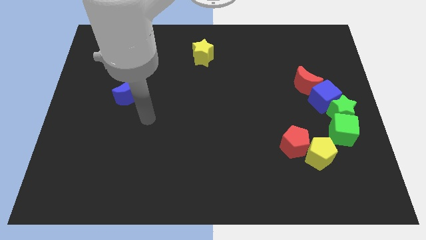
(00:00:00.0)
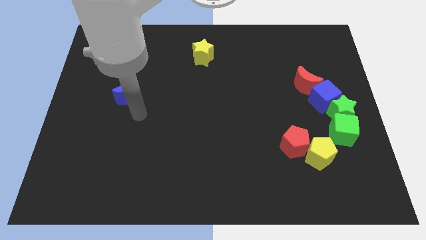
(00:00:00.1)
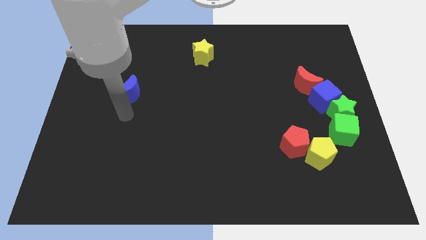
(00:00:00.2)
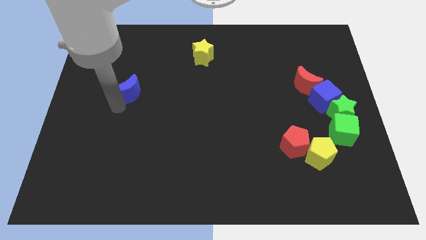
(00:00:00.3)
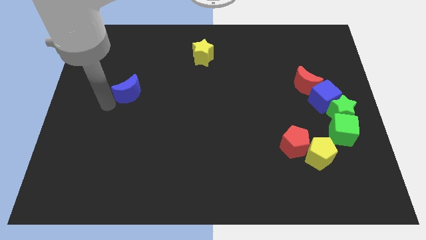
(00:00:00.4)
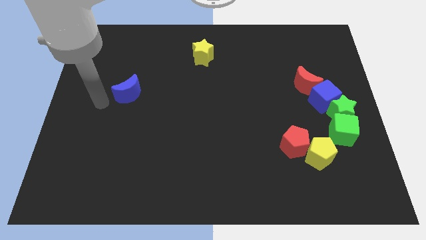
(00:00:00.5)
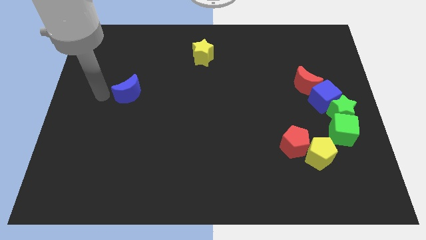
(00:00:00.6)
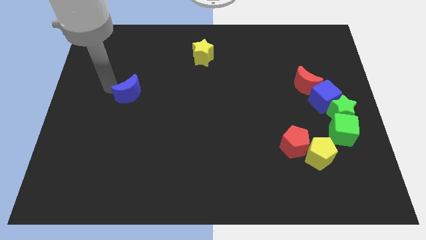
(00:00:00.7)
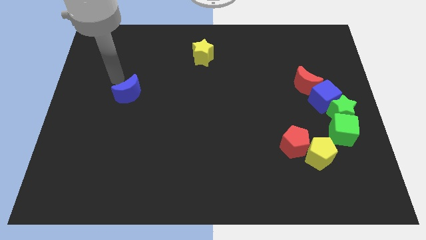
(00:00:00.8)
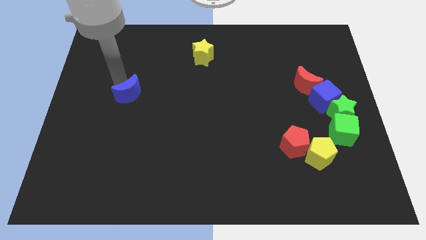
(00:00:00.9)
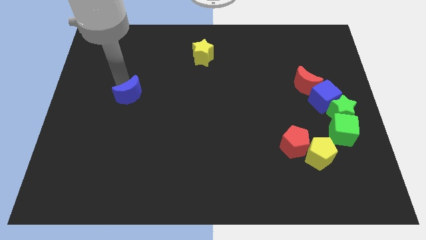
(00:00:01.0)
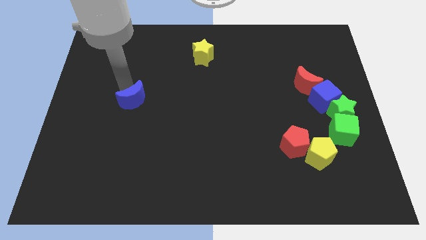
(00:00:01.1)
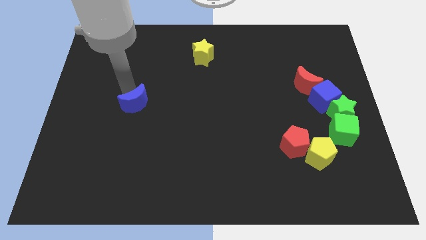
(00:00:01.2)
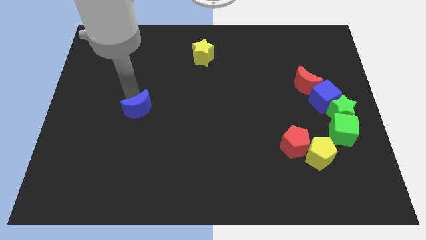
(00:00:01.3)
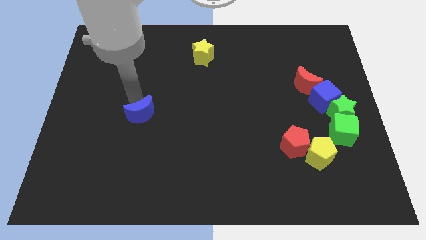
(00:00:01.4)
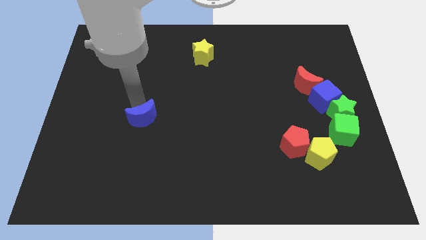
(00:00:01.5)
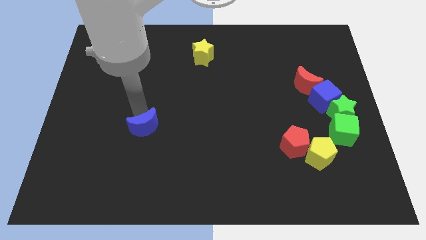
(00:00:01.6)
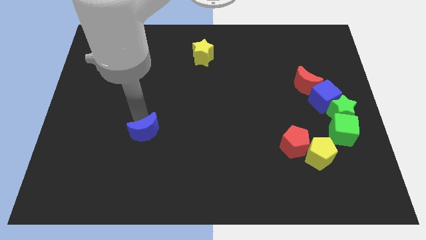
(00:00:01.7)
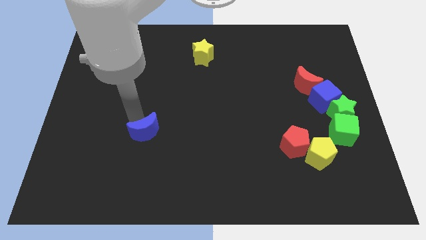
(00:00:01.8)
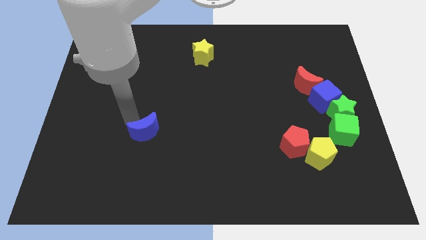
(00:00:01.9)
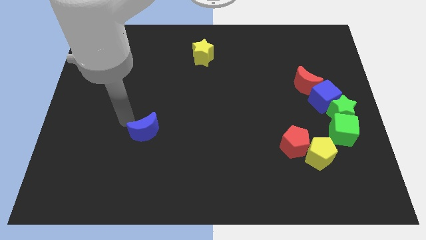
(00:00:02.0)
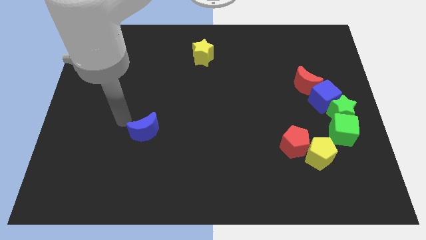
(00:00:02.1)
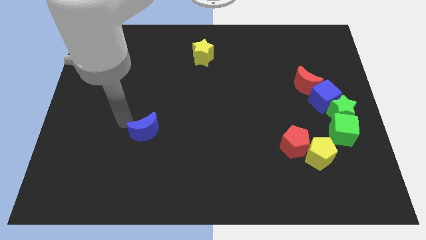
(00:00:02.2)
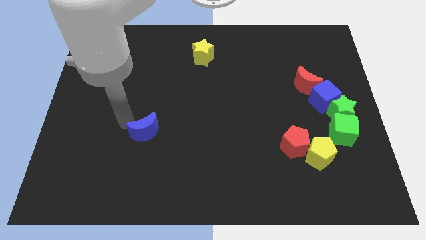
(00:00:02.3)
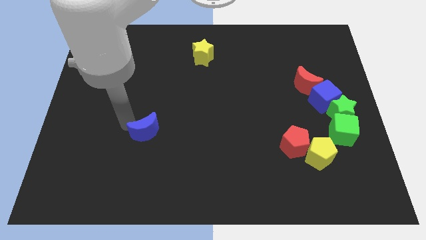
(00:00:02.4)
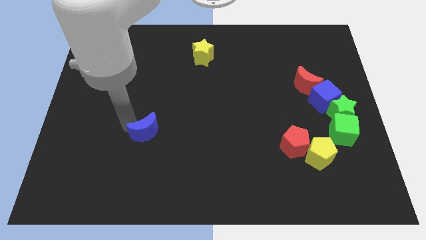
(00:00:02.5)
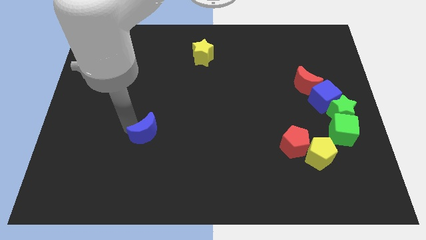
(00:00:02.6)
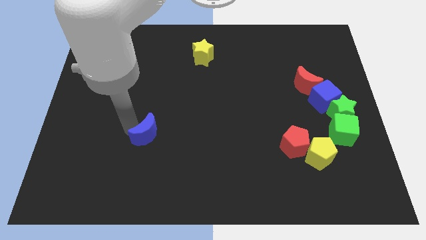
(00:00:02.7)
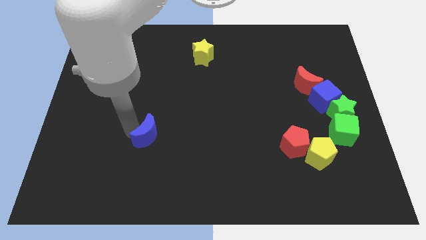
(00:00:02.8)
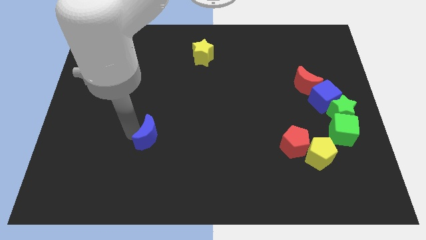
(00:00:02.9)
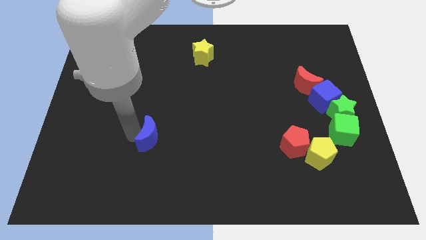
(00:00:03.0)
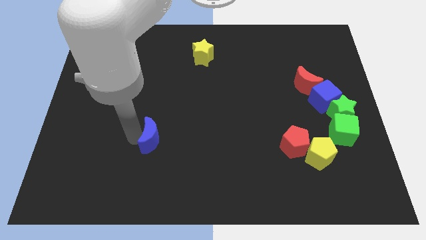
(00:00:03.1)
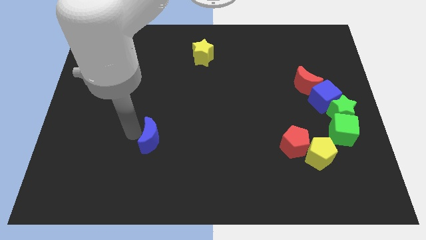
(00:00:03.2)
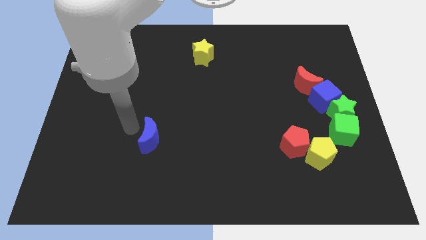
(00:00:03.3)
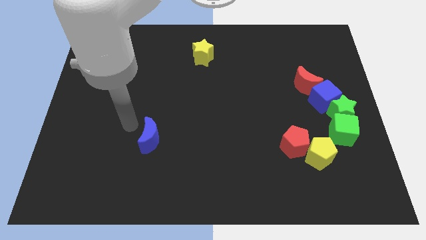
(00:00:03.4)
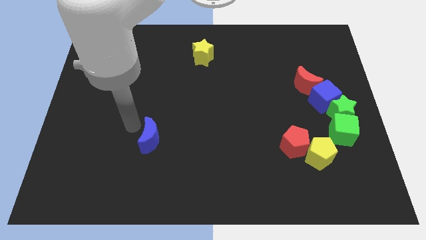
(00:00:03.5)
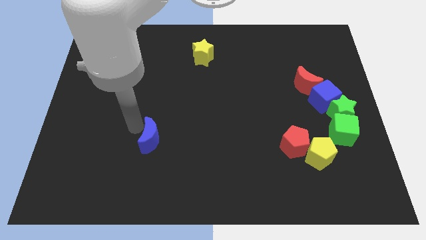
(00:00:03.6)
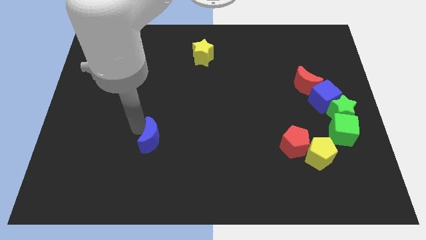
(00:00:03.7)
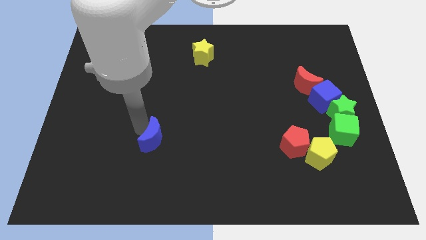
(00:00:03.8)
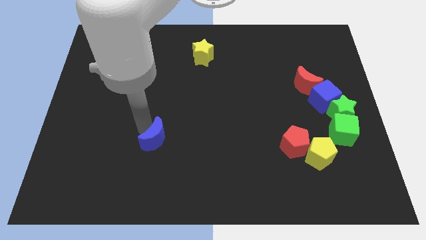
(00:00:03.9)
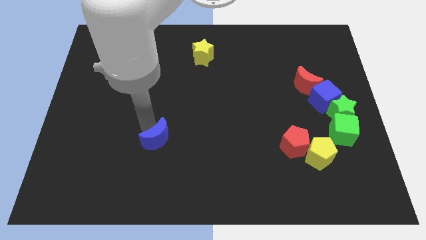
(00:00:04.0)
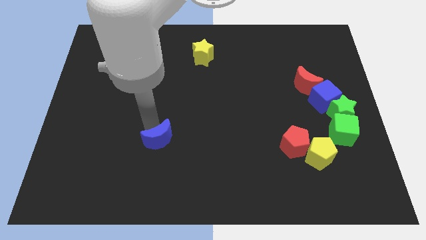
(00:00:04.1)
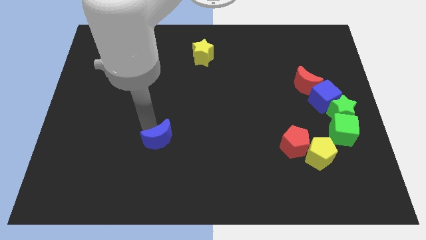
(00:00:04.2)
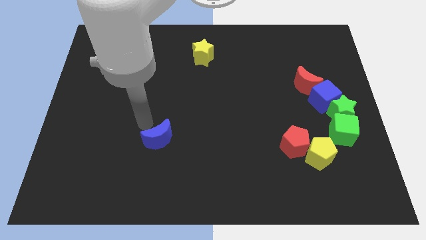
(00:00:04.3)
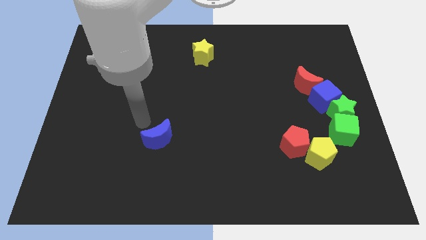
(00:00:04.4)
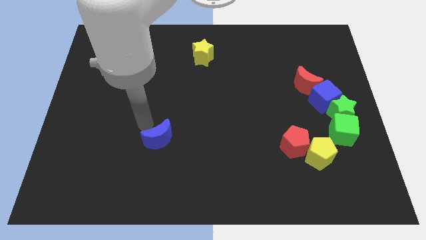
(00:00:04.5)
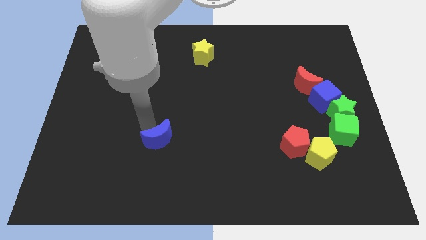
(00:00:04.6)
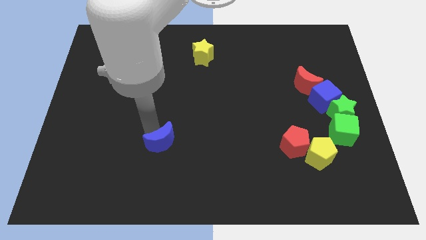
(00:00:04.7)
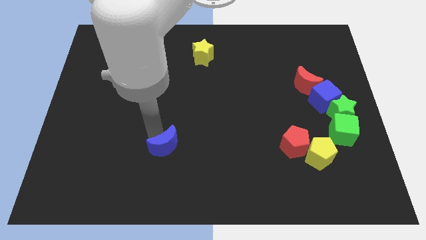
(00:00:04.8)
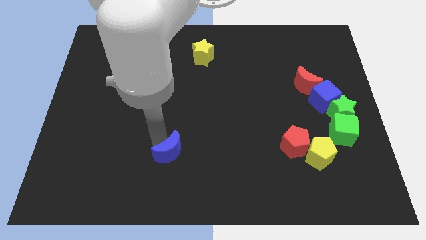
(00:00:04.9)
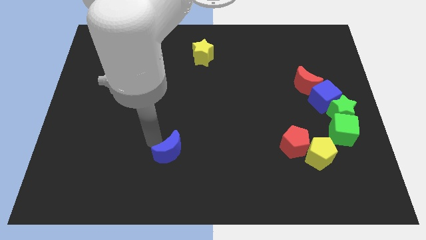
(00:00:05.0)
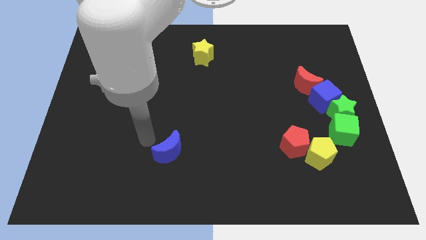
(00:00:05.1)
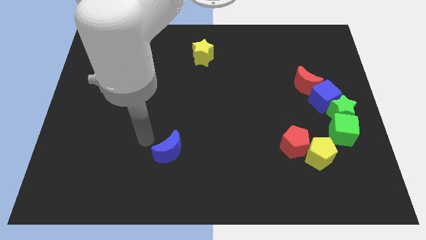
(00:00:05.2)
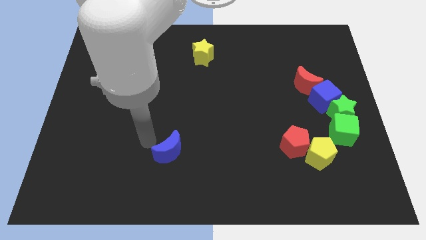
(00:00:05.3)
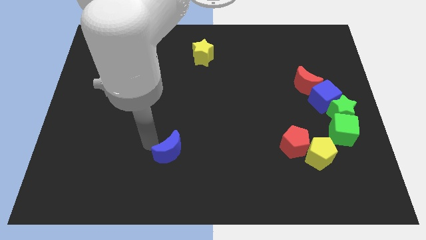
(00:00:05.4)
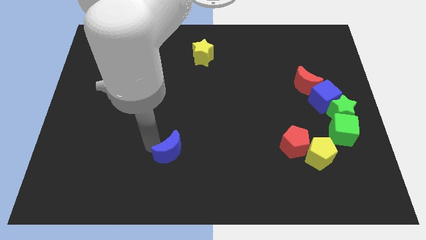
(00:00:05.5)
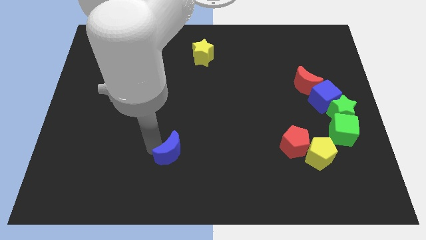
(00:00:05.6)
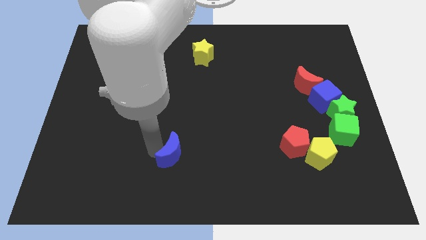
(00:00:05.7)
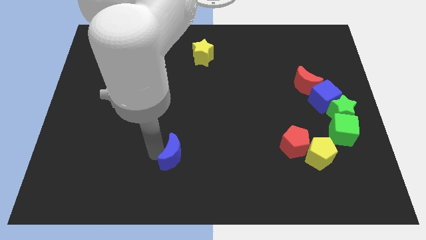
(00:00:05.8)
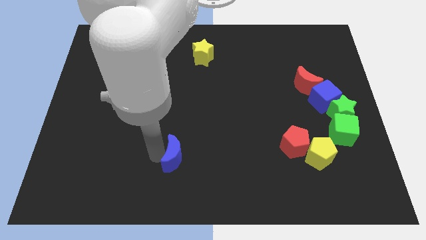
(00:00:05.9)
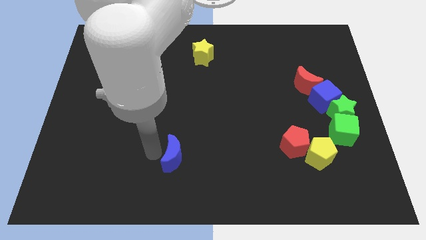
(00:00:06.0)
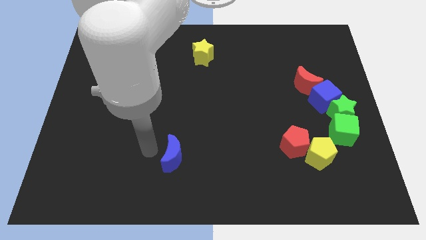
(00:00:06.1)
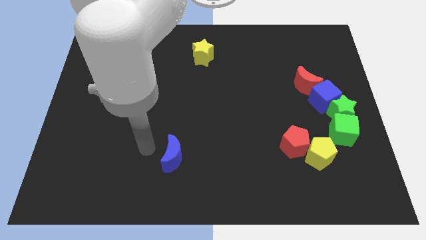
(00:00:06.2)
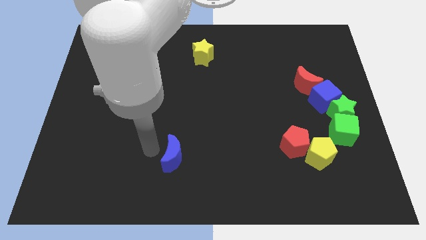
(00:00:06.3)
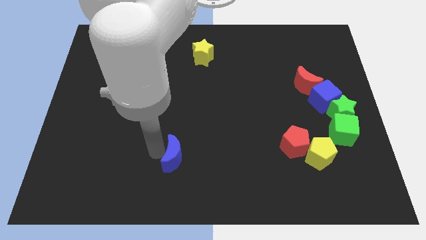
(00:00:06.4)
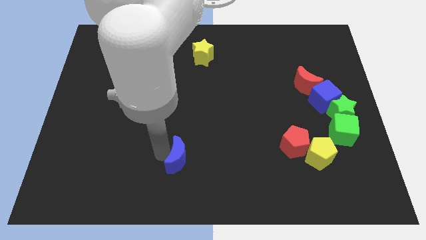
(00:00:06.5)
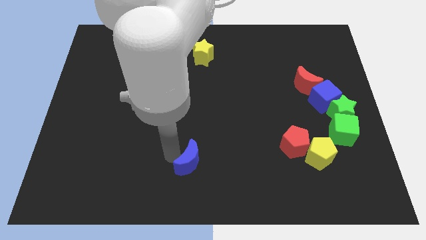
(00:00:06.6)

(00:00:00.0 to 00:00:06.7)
put the blue moon to the bottom side
